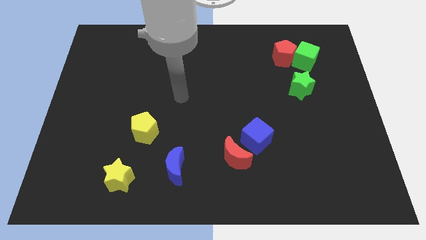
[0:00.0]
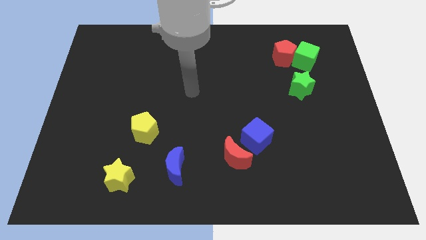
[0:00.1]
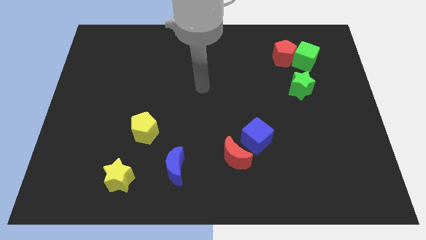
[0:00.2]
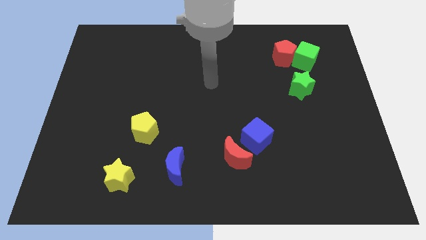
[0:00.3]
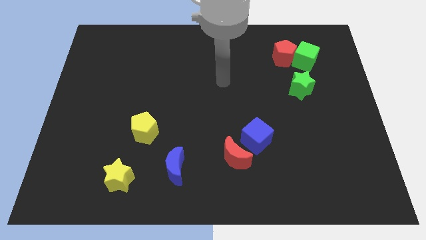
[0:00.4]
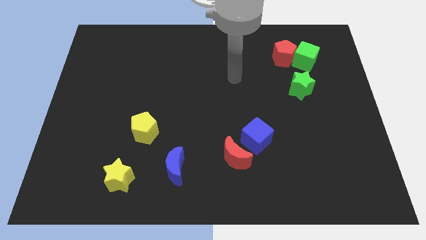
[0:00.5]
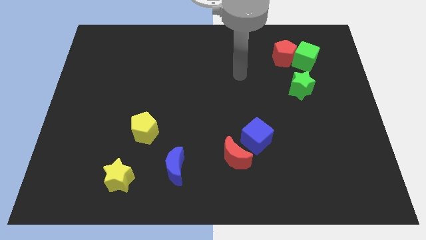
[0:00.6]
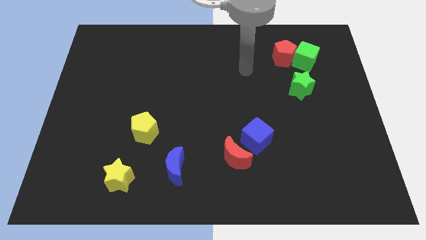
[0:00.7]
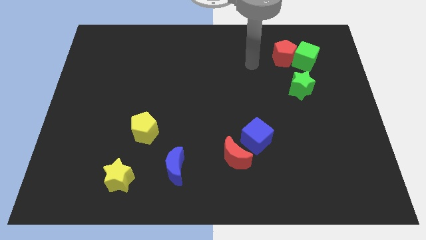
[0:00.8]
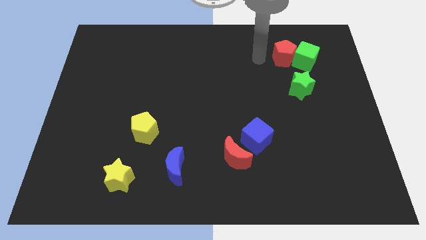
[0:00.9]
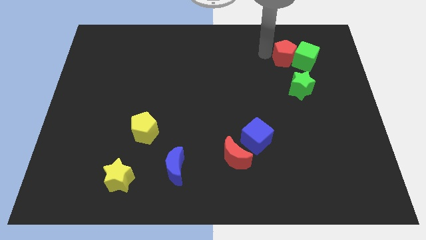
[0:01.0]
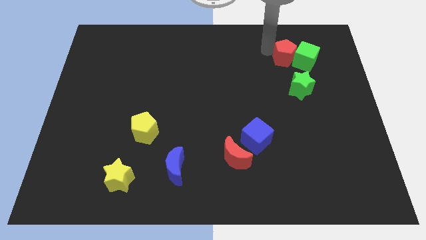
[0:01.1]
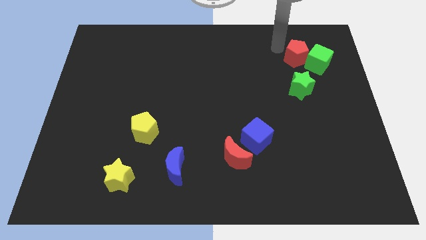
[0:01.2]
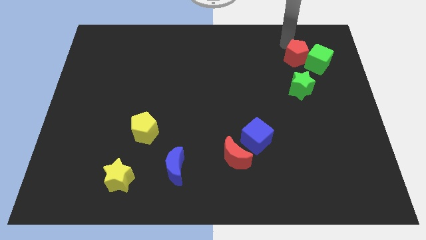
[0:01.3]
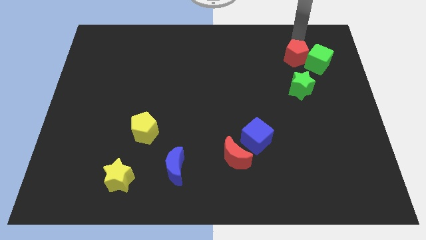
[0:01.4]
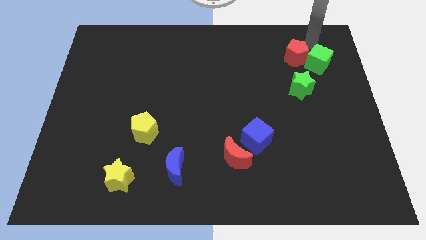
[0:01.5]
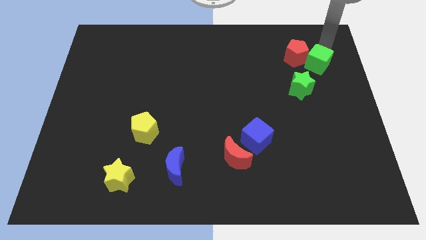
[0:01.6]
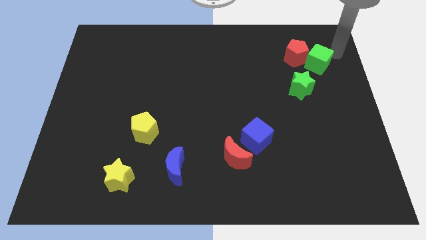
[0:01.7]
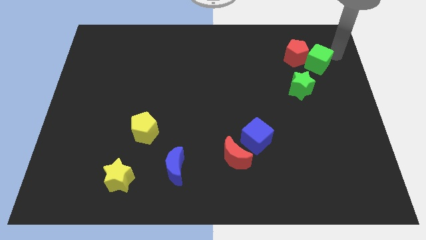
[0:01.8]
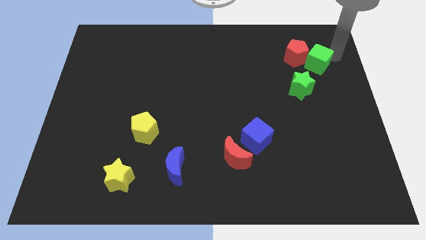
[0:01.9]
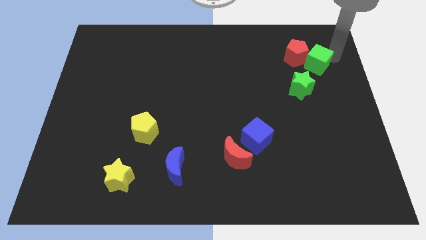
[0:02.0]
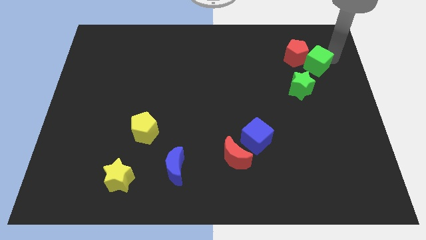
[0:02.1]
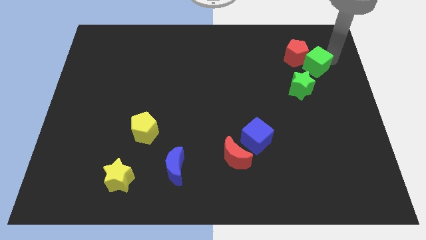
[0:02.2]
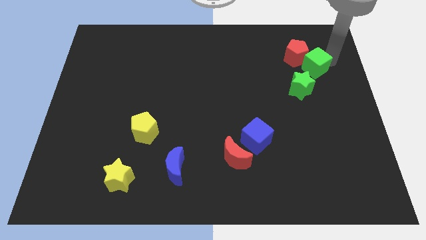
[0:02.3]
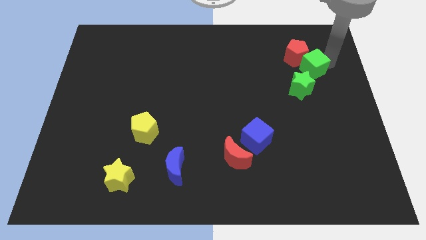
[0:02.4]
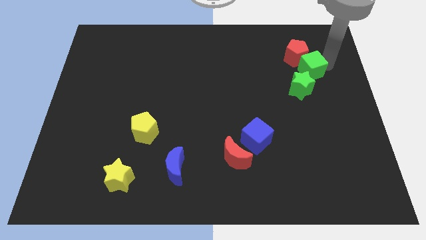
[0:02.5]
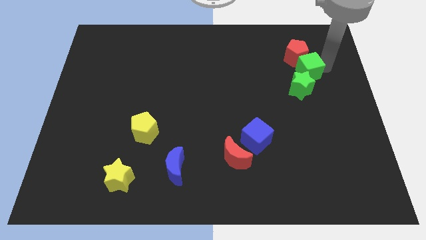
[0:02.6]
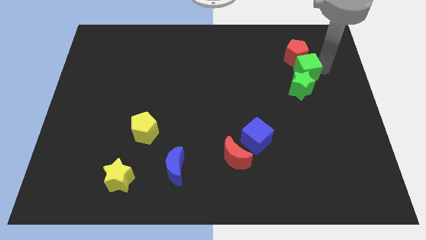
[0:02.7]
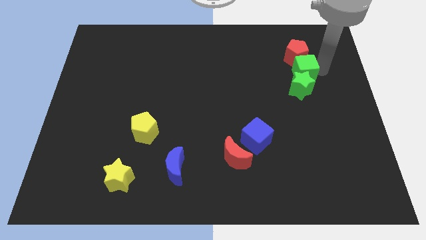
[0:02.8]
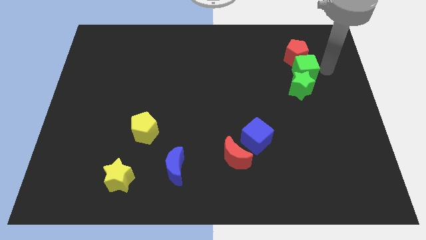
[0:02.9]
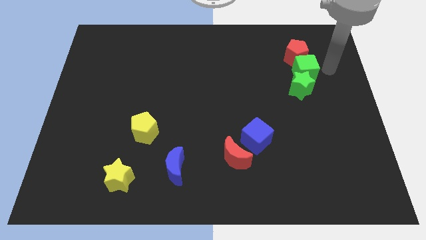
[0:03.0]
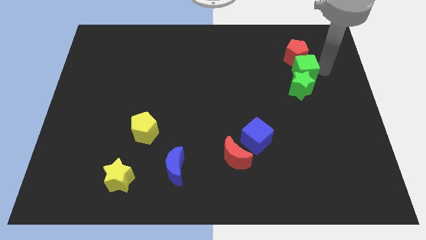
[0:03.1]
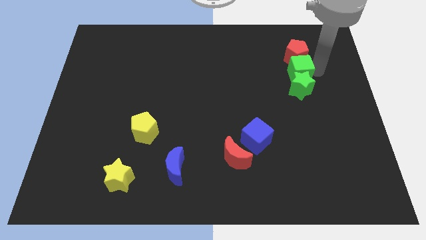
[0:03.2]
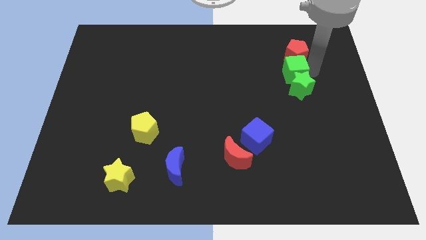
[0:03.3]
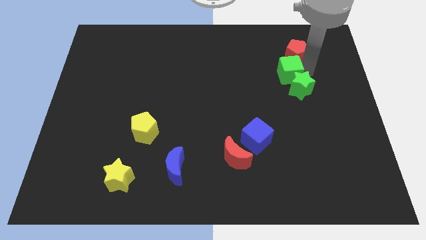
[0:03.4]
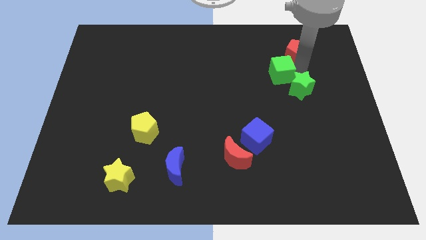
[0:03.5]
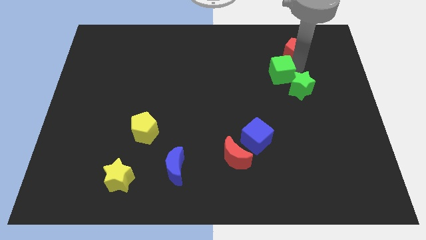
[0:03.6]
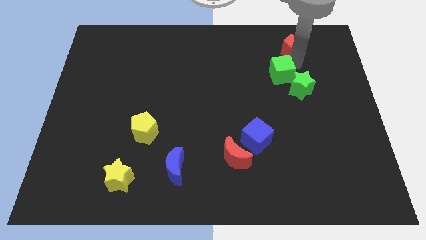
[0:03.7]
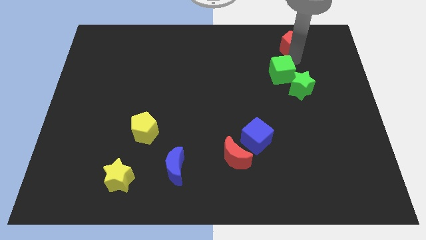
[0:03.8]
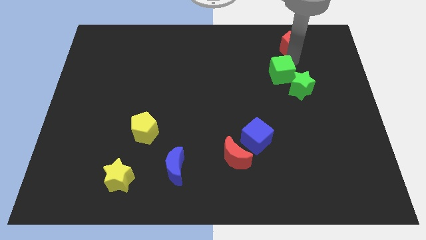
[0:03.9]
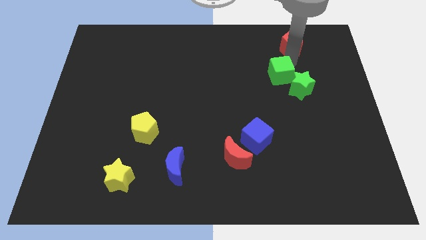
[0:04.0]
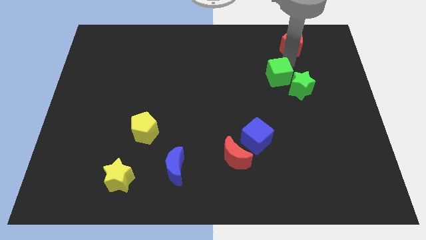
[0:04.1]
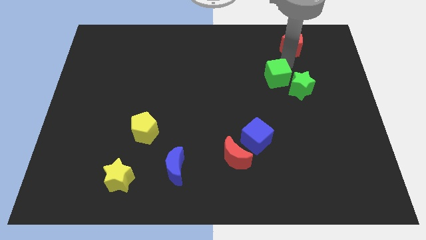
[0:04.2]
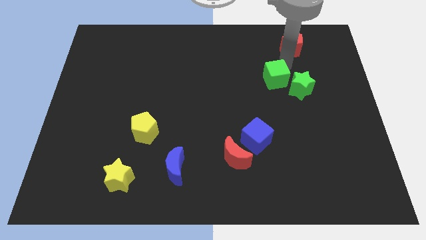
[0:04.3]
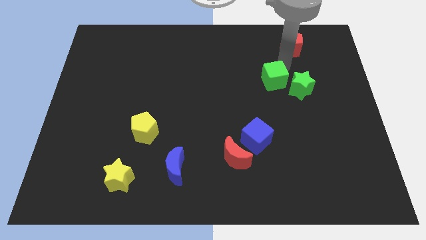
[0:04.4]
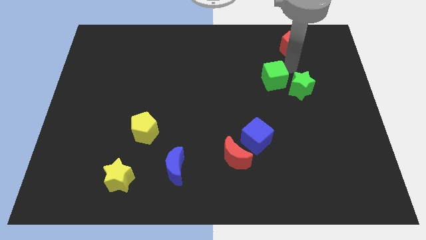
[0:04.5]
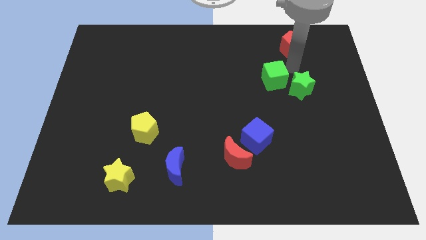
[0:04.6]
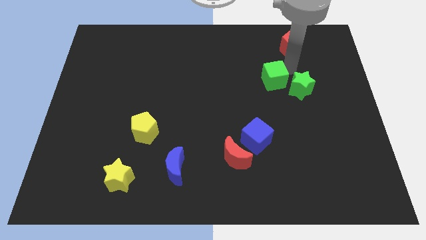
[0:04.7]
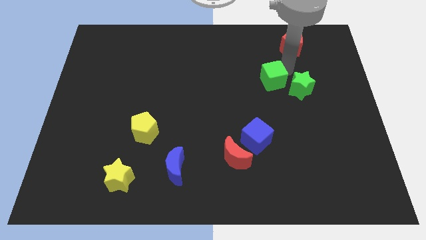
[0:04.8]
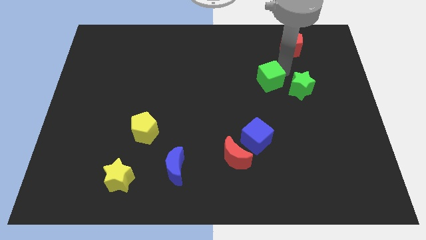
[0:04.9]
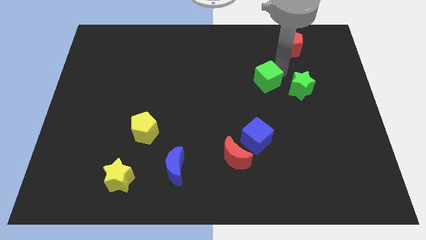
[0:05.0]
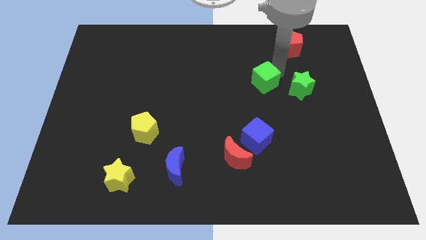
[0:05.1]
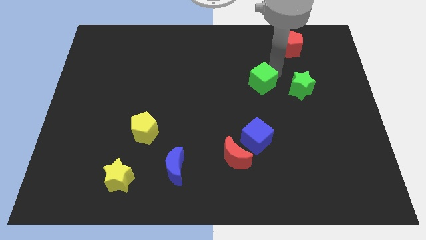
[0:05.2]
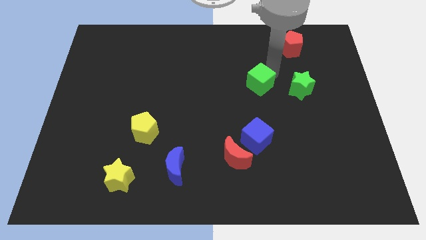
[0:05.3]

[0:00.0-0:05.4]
slide the green cube to the center of the board

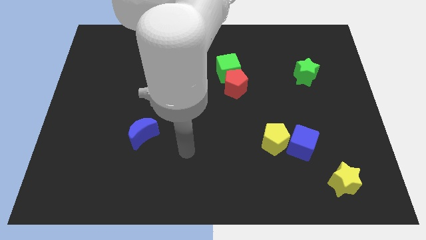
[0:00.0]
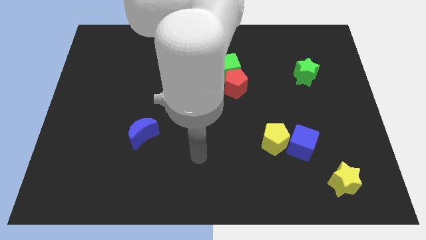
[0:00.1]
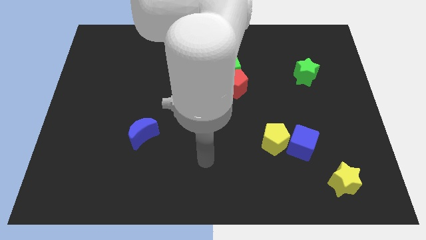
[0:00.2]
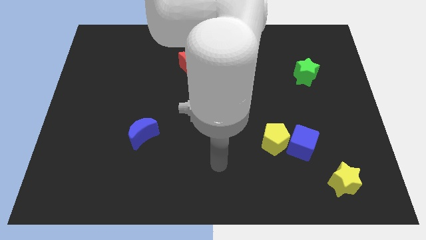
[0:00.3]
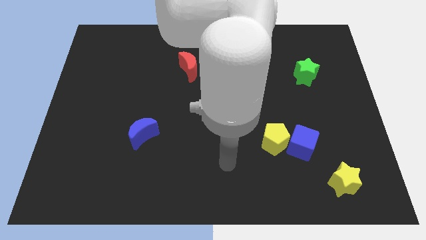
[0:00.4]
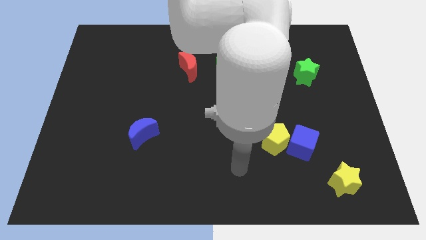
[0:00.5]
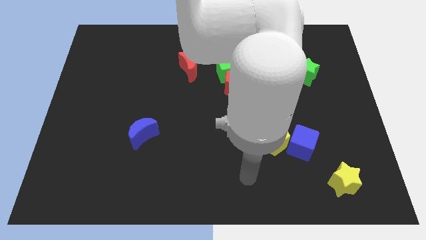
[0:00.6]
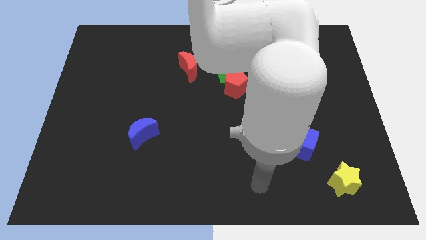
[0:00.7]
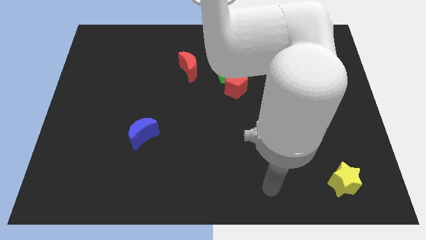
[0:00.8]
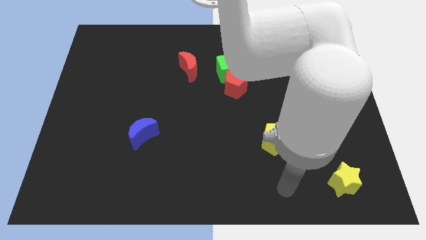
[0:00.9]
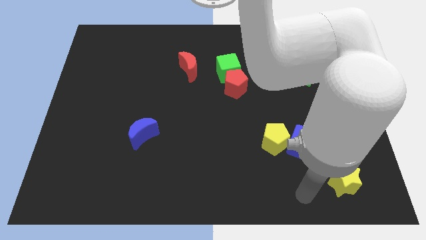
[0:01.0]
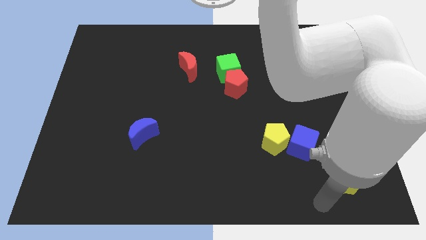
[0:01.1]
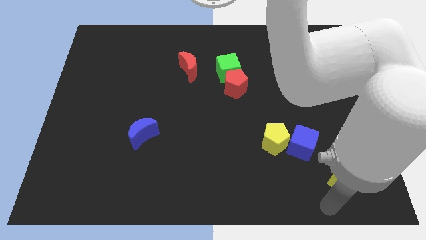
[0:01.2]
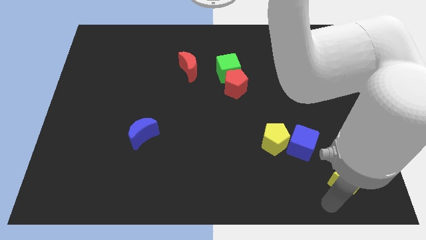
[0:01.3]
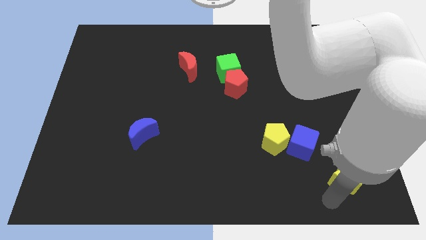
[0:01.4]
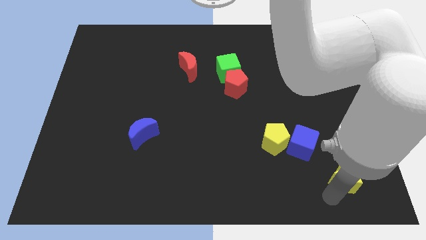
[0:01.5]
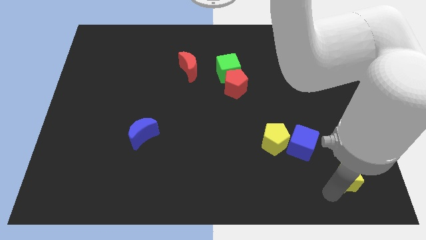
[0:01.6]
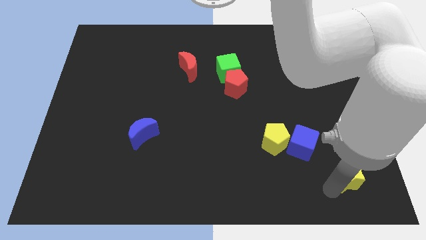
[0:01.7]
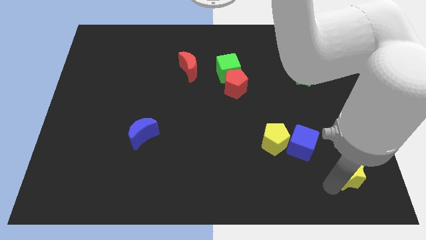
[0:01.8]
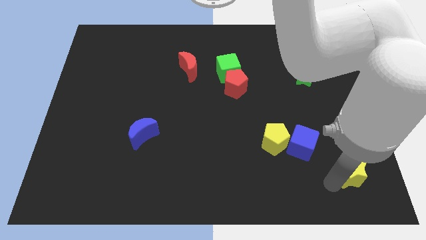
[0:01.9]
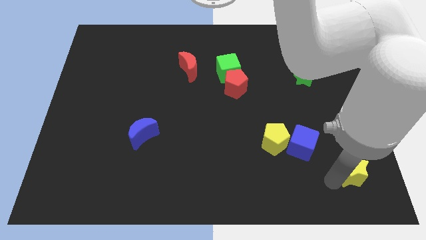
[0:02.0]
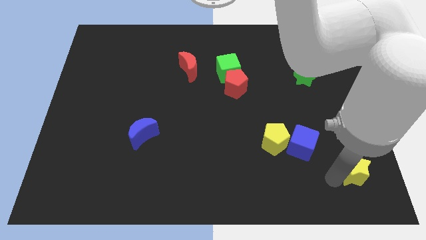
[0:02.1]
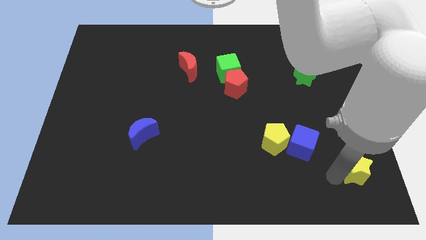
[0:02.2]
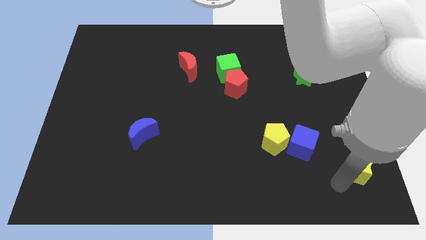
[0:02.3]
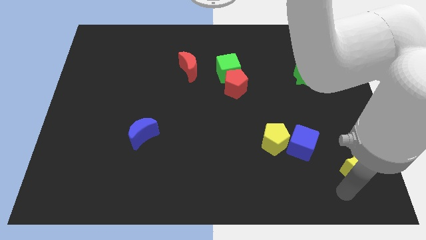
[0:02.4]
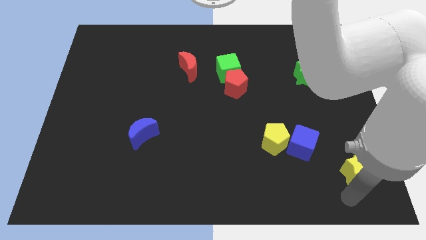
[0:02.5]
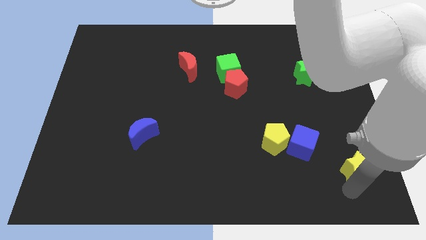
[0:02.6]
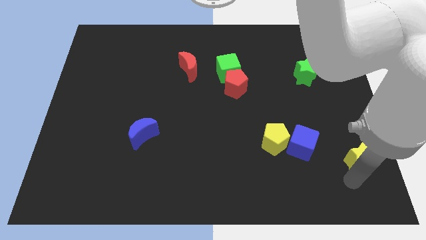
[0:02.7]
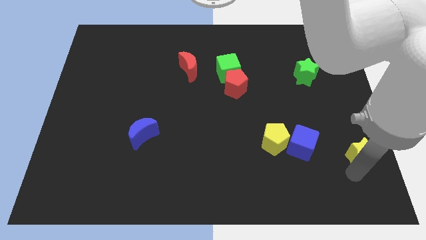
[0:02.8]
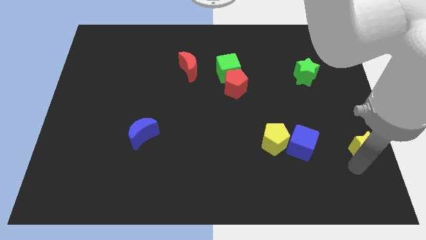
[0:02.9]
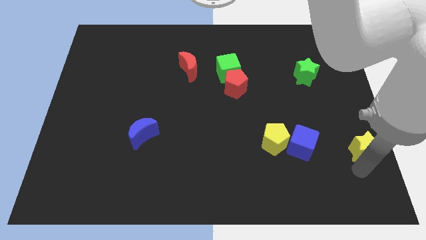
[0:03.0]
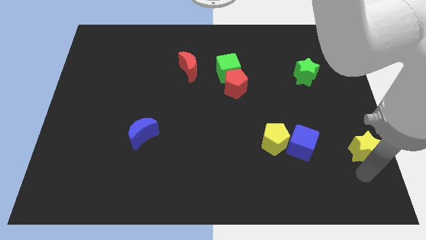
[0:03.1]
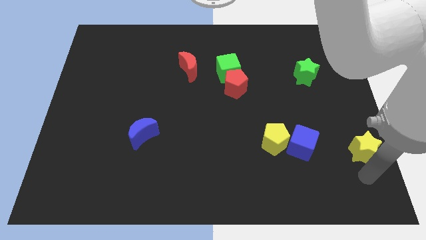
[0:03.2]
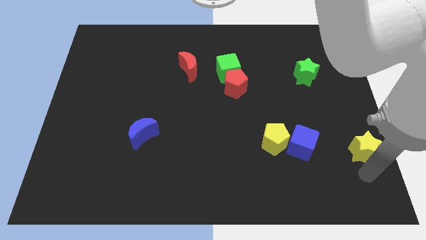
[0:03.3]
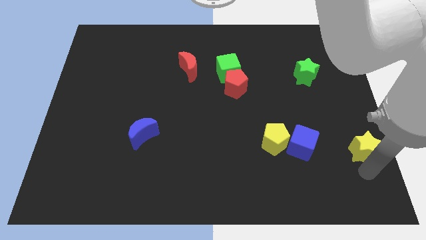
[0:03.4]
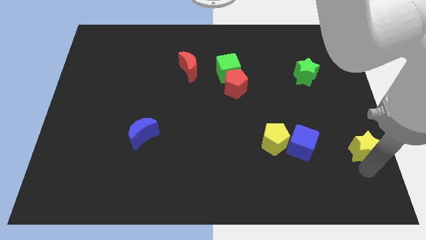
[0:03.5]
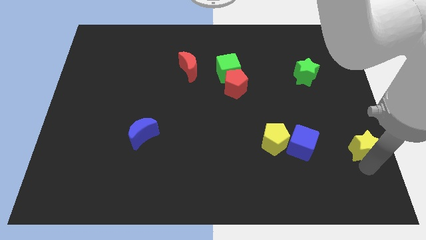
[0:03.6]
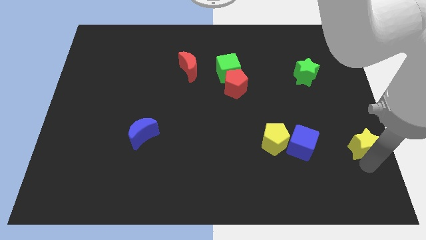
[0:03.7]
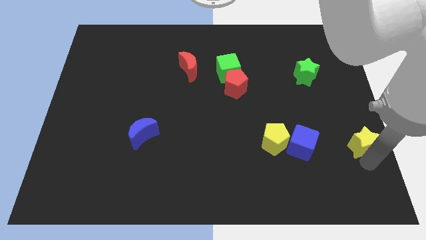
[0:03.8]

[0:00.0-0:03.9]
put the yellow star to the right side of the board
